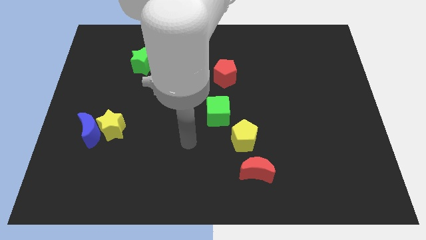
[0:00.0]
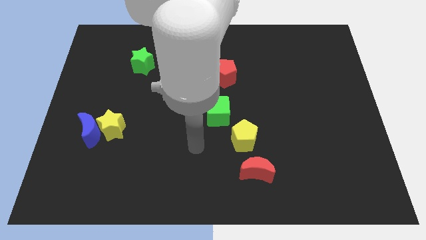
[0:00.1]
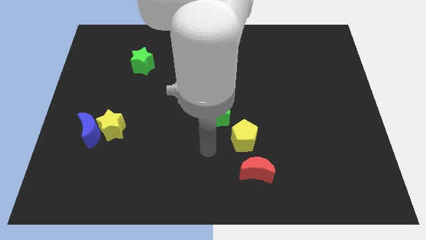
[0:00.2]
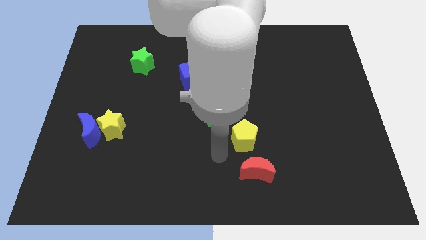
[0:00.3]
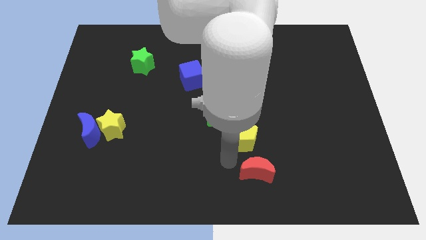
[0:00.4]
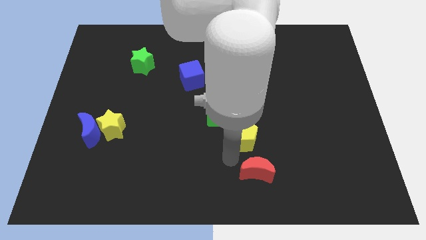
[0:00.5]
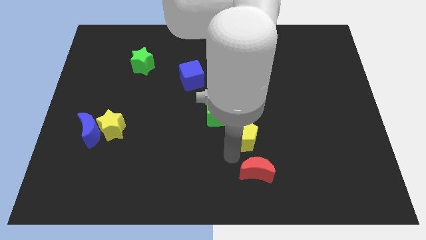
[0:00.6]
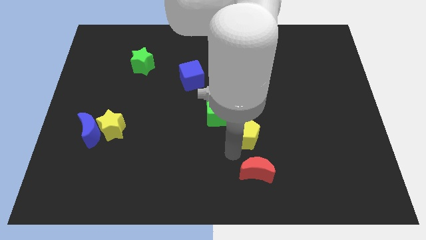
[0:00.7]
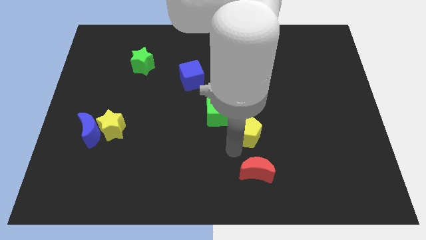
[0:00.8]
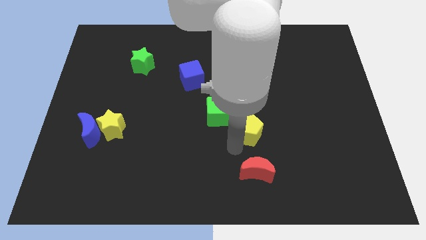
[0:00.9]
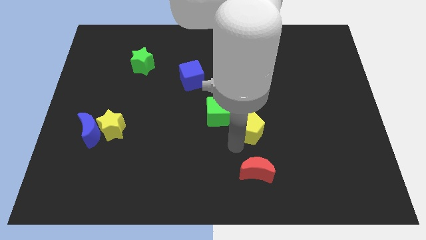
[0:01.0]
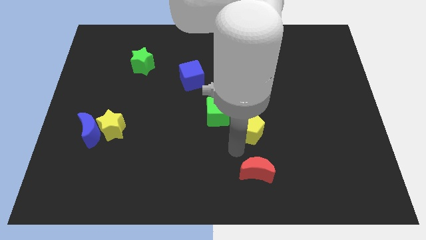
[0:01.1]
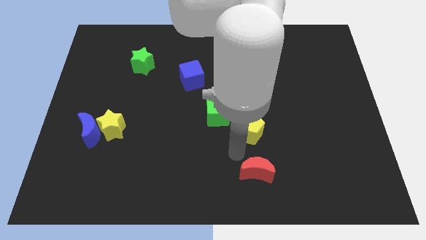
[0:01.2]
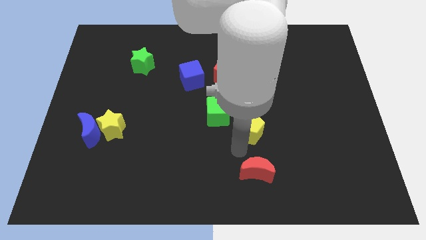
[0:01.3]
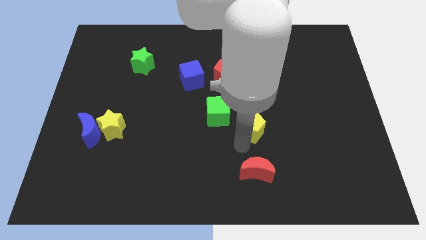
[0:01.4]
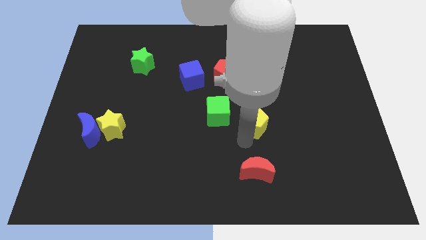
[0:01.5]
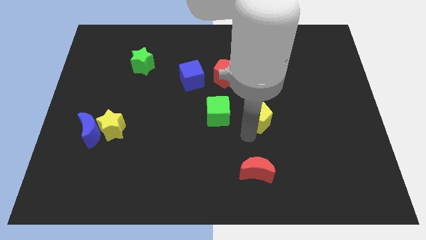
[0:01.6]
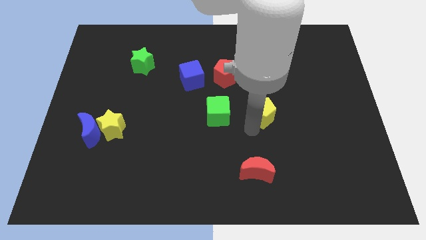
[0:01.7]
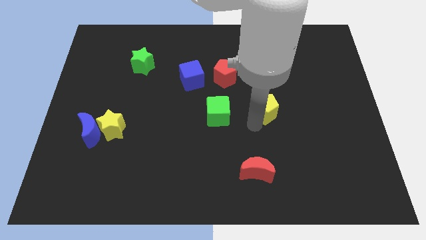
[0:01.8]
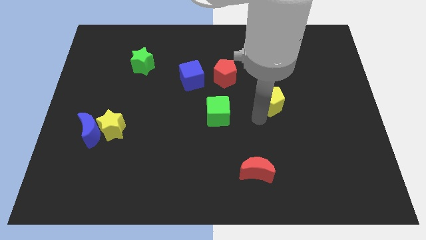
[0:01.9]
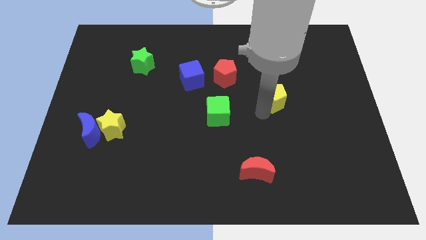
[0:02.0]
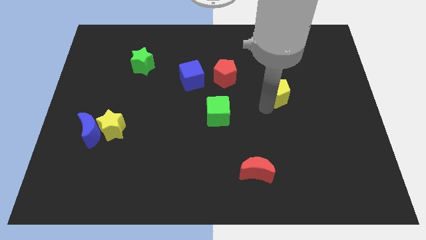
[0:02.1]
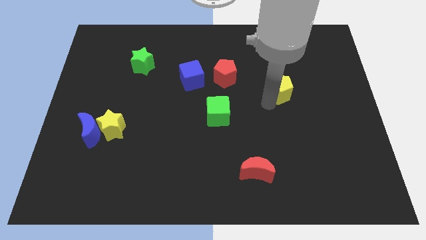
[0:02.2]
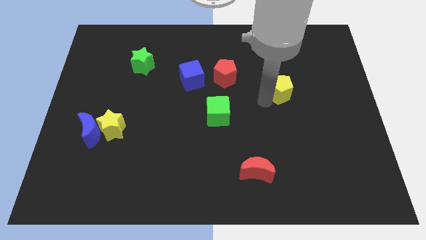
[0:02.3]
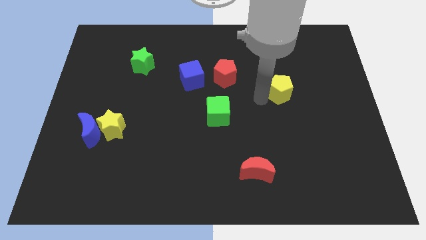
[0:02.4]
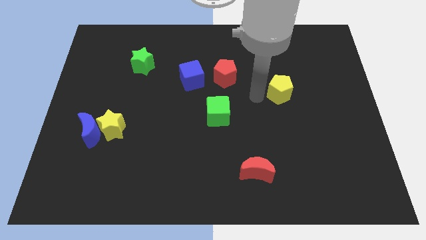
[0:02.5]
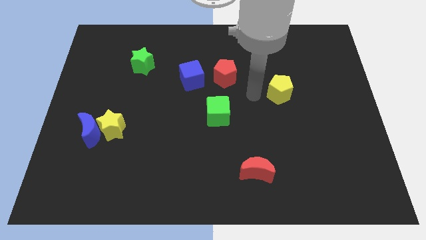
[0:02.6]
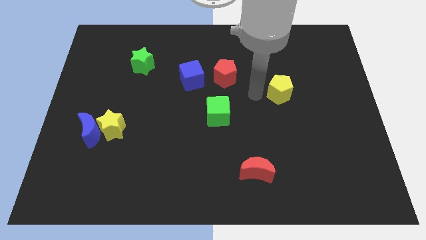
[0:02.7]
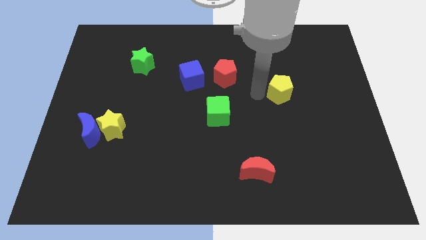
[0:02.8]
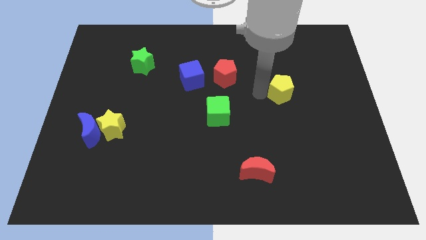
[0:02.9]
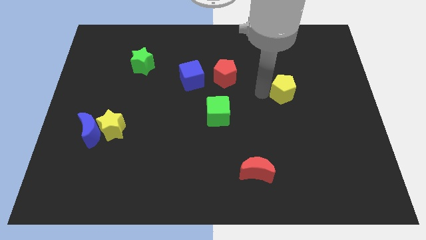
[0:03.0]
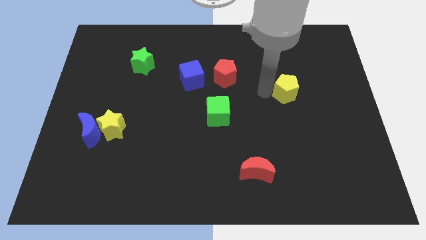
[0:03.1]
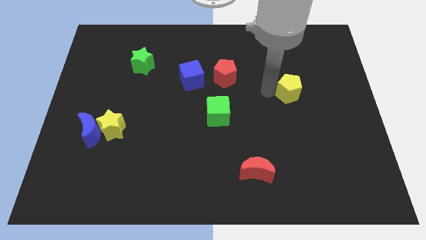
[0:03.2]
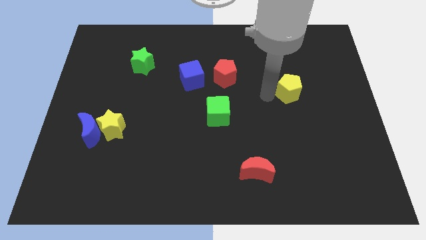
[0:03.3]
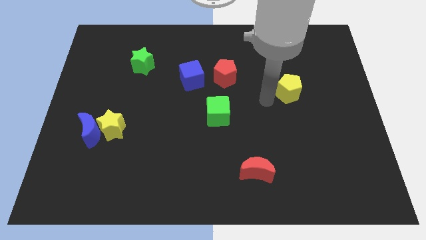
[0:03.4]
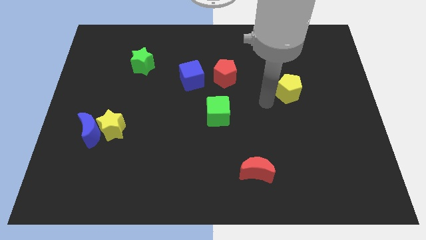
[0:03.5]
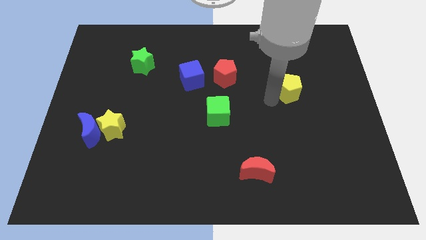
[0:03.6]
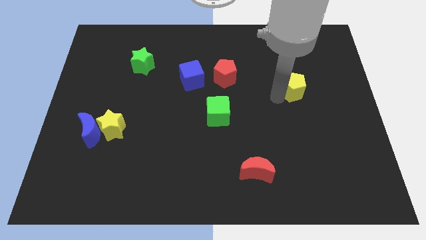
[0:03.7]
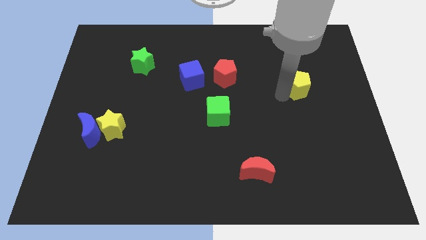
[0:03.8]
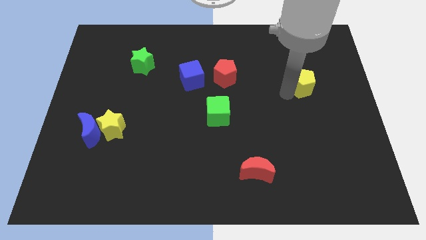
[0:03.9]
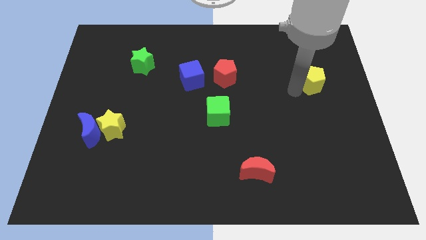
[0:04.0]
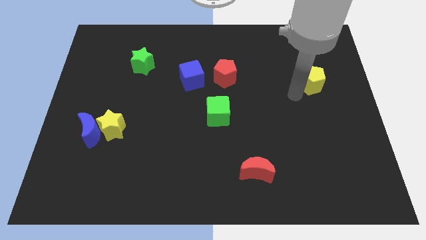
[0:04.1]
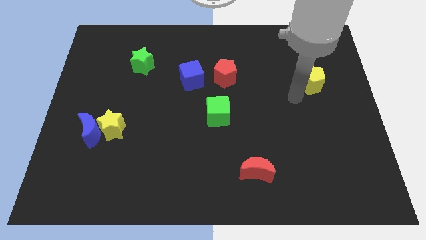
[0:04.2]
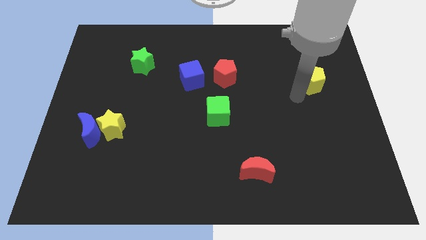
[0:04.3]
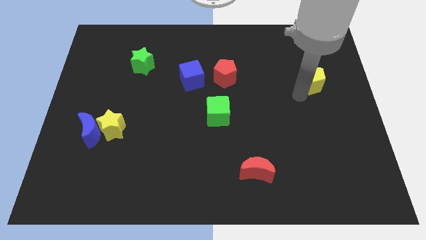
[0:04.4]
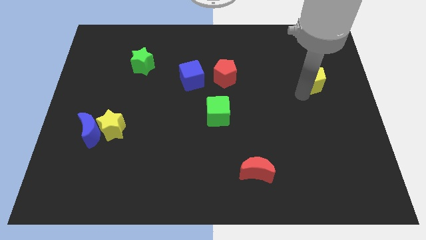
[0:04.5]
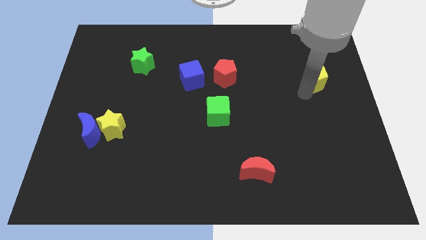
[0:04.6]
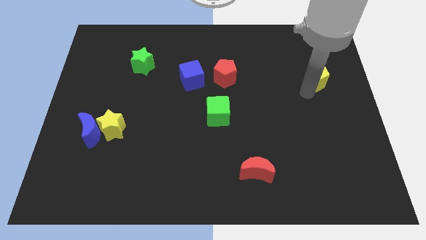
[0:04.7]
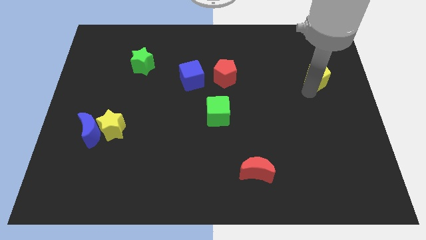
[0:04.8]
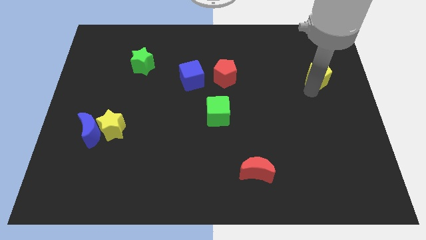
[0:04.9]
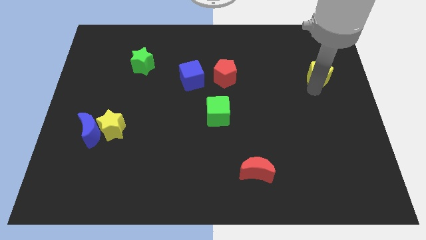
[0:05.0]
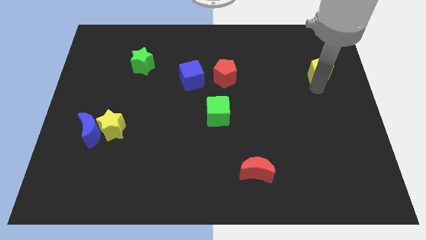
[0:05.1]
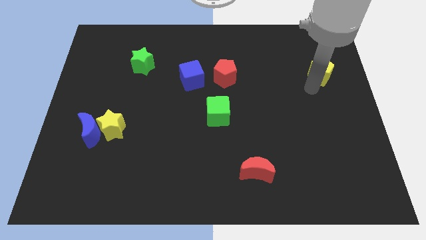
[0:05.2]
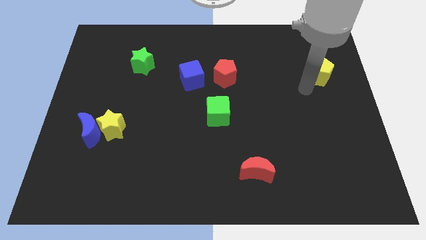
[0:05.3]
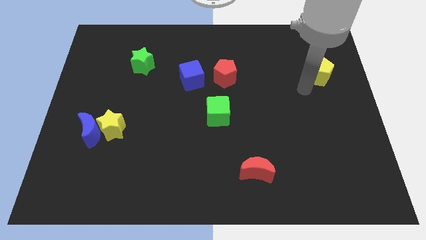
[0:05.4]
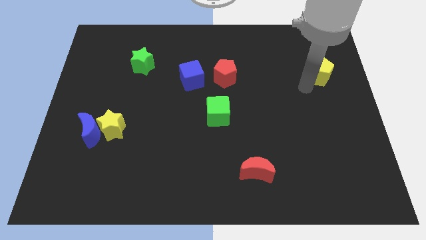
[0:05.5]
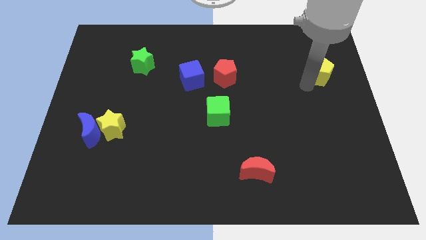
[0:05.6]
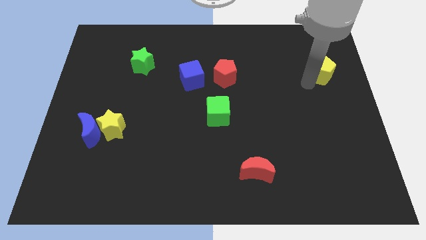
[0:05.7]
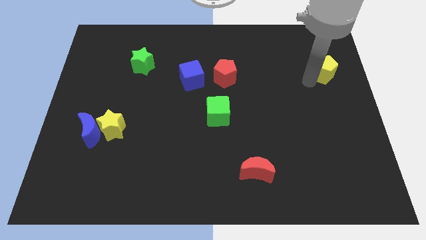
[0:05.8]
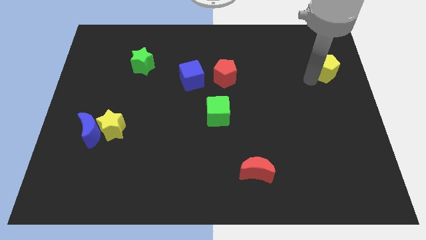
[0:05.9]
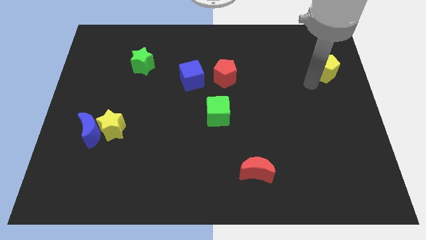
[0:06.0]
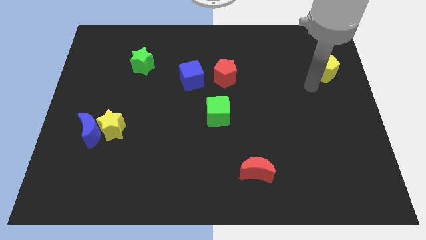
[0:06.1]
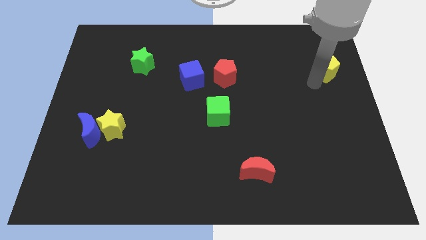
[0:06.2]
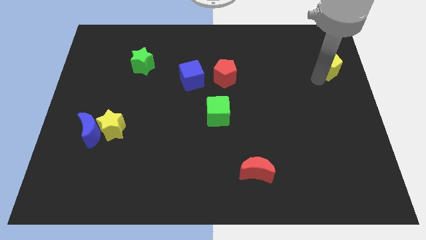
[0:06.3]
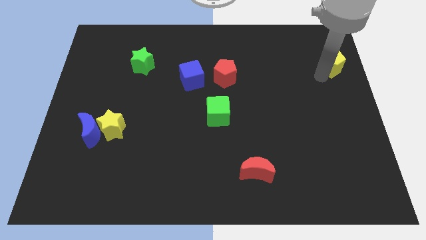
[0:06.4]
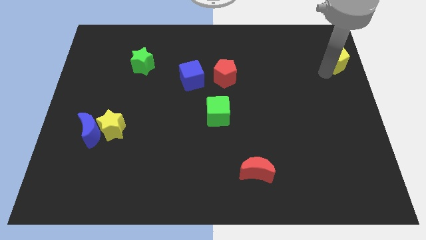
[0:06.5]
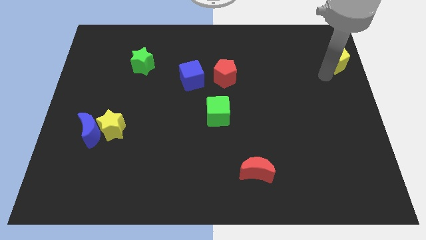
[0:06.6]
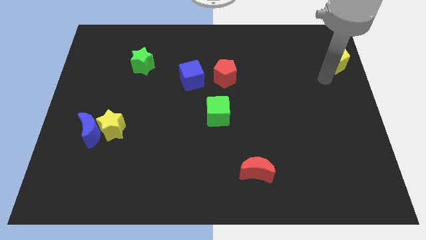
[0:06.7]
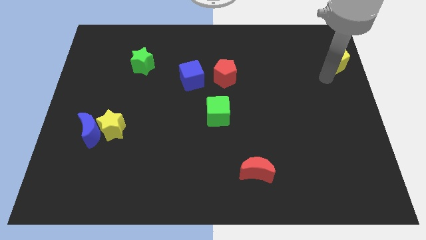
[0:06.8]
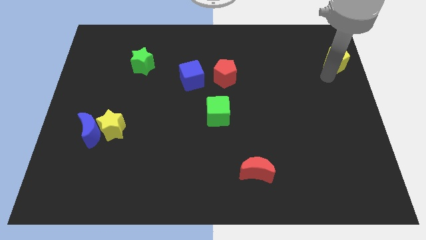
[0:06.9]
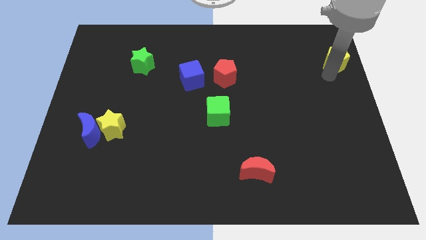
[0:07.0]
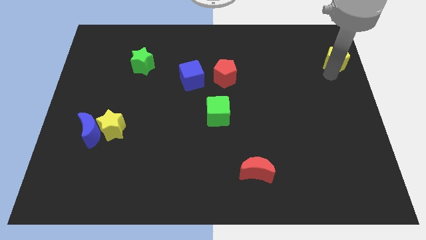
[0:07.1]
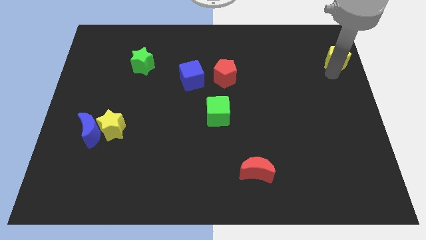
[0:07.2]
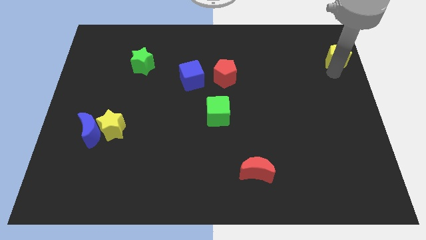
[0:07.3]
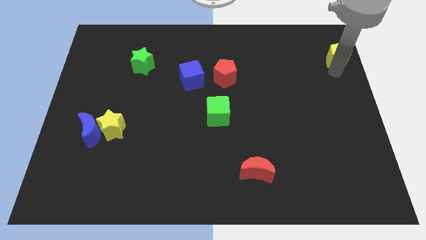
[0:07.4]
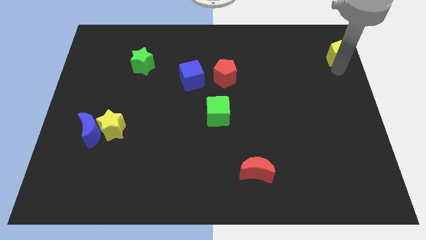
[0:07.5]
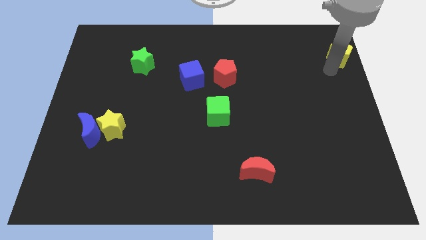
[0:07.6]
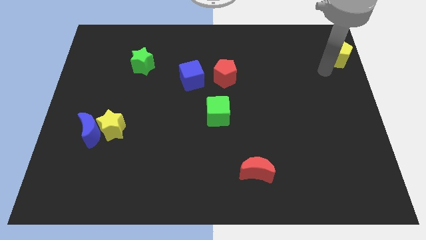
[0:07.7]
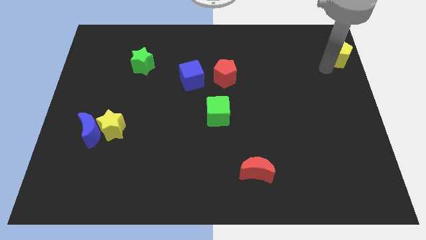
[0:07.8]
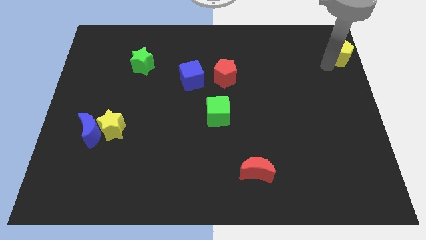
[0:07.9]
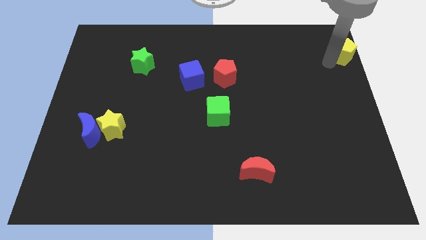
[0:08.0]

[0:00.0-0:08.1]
move the yellow pentagon to the top right of the board
